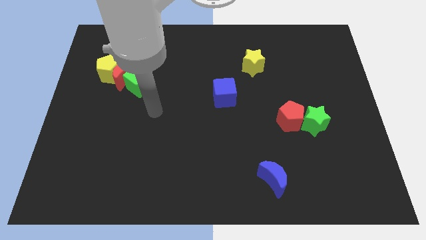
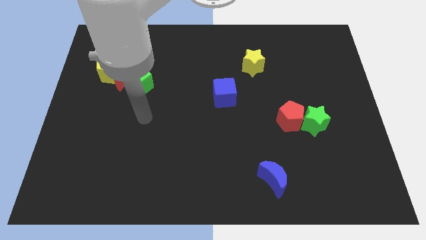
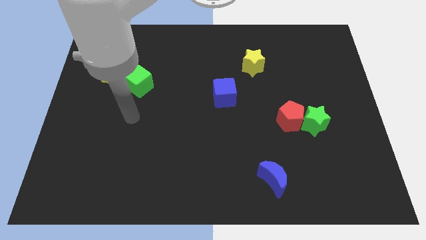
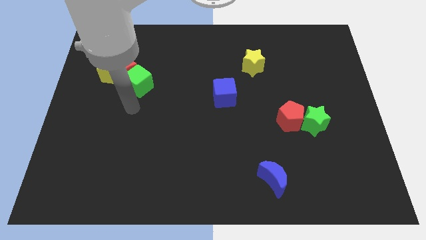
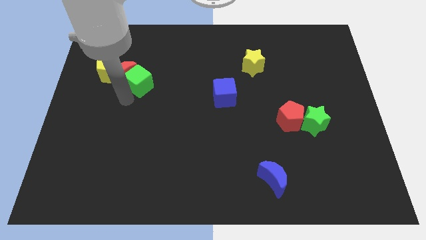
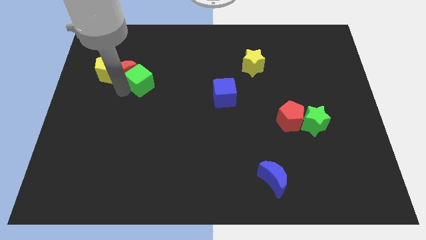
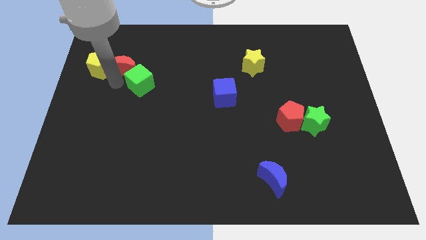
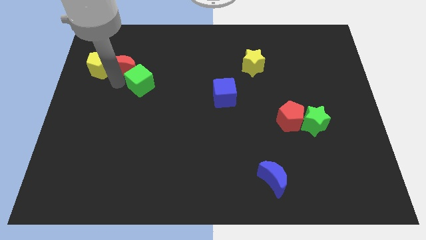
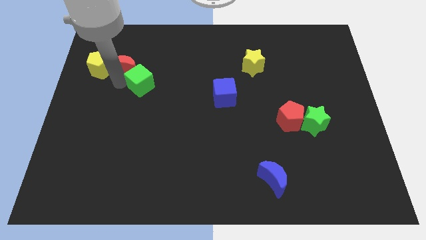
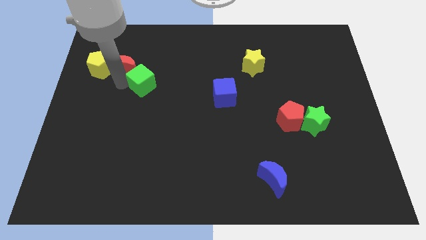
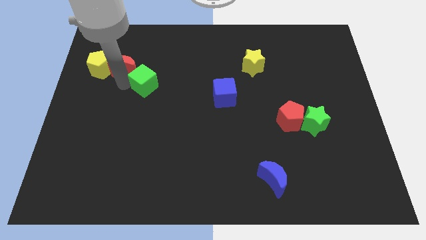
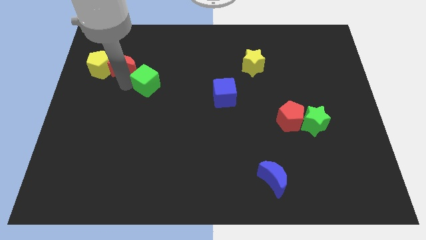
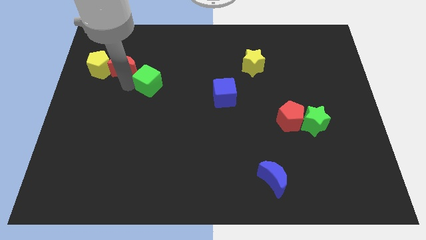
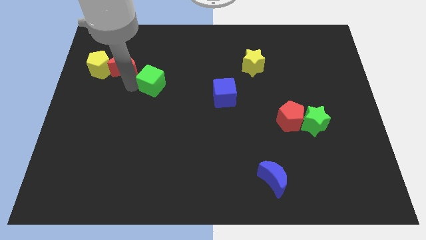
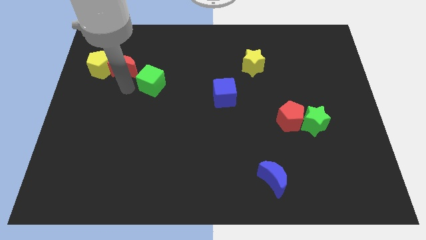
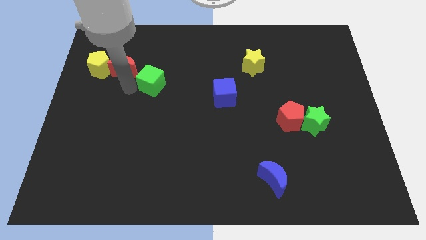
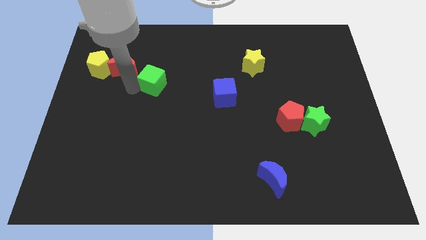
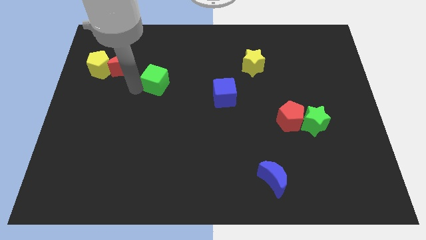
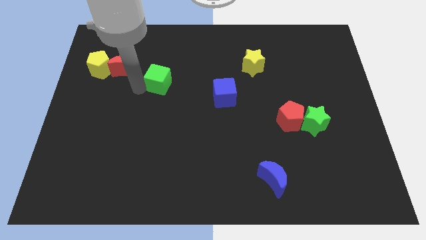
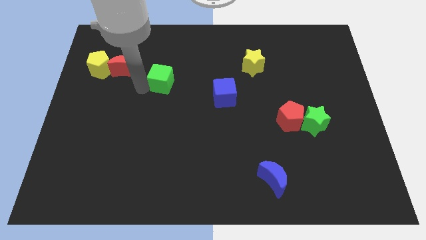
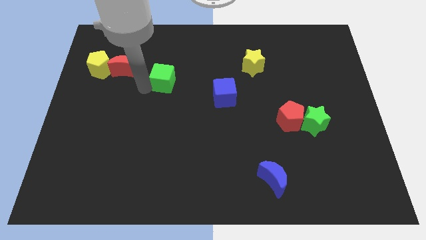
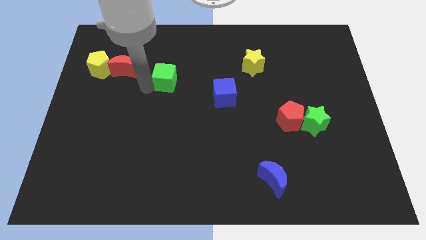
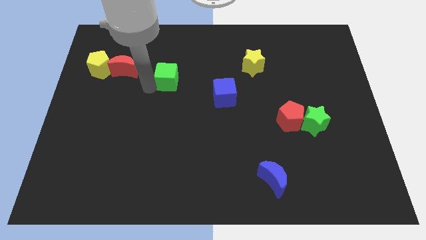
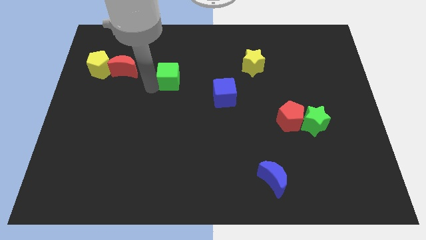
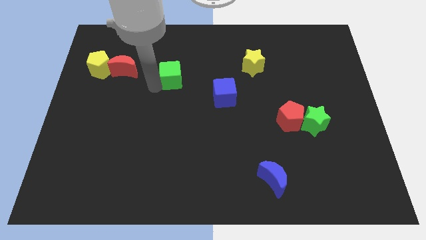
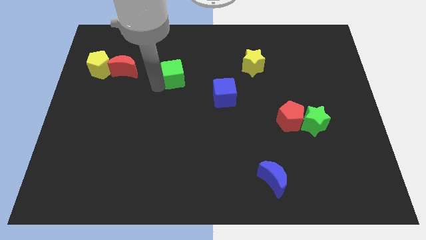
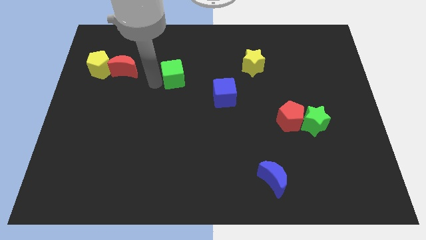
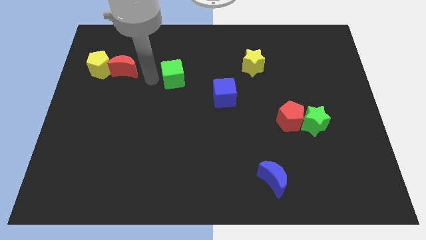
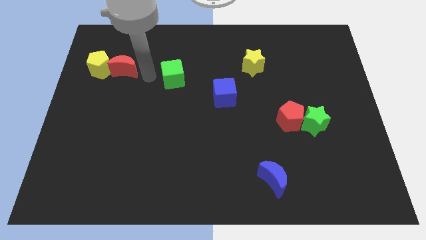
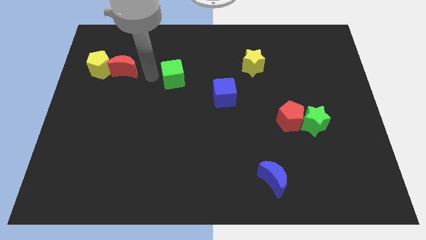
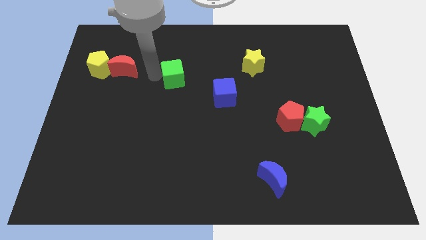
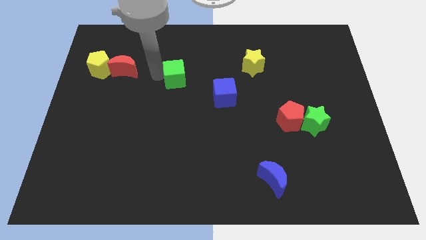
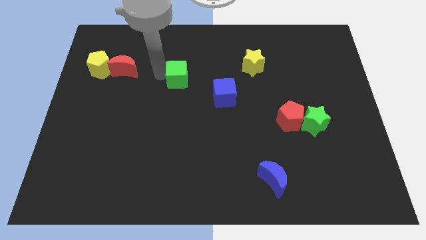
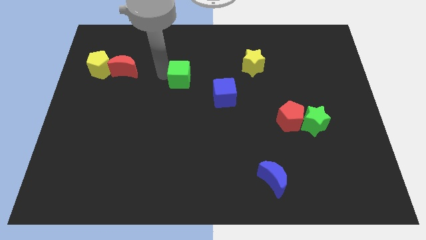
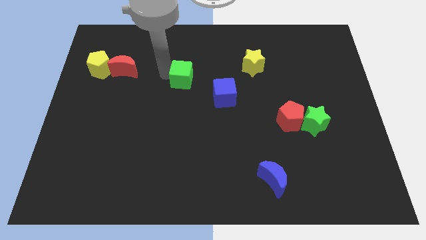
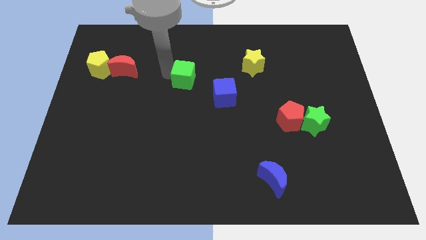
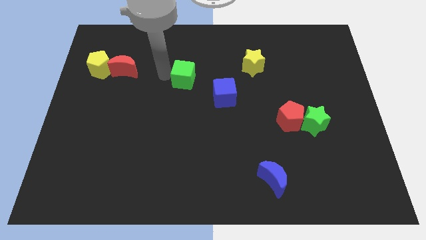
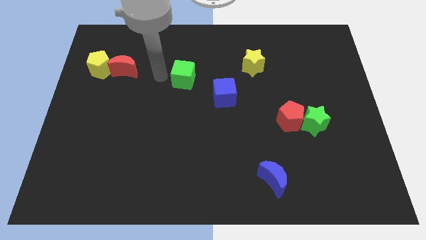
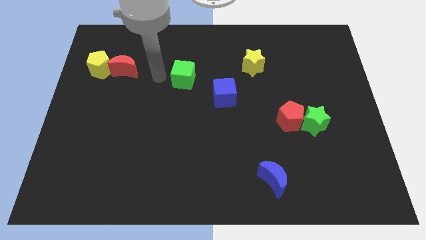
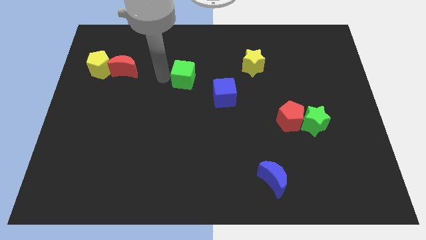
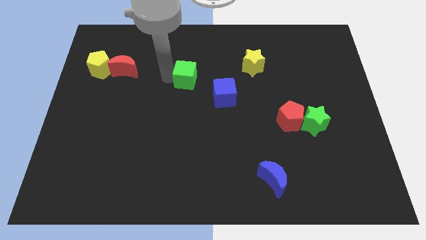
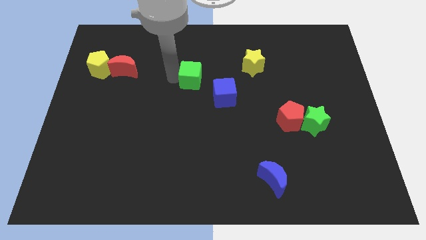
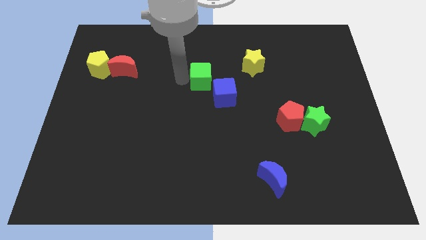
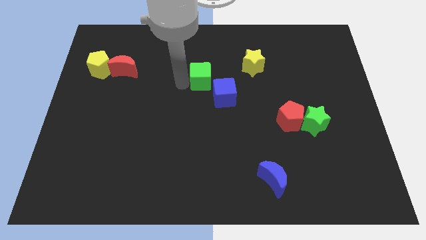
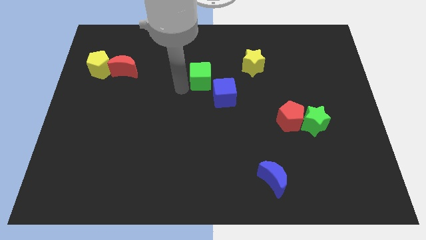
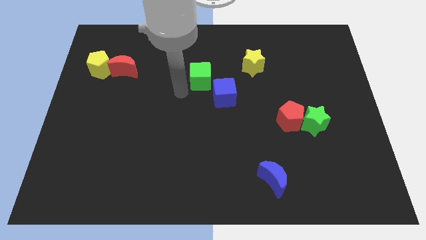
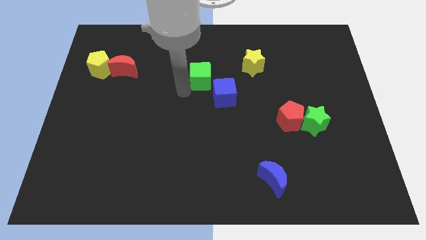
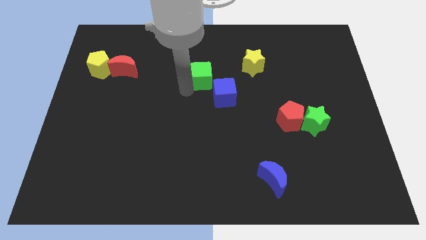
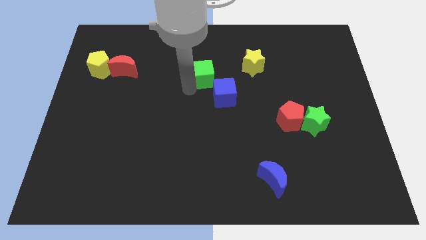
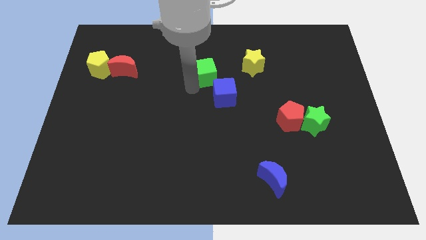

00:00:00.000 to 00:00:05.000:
slide the green cube above the blue cube

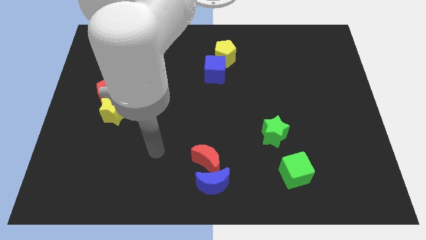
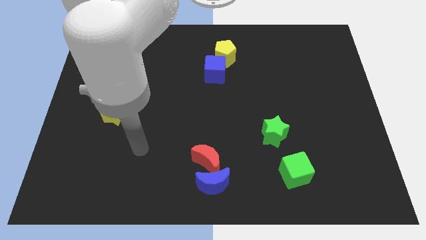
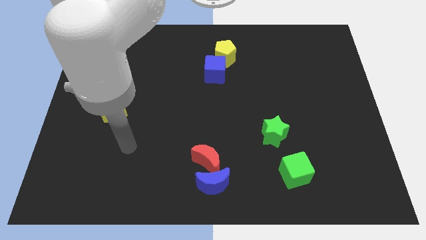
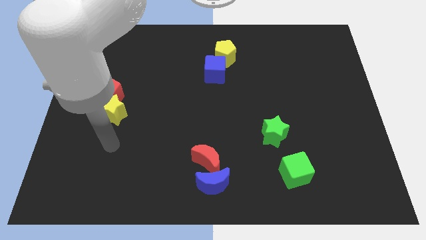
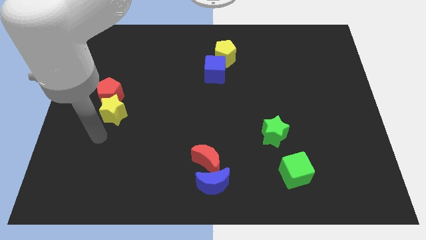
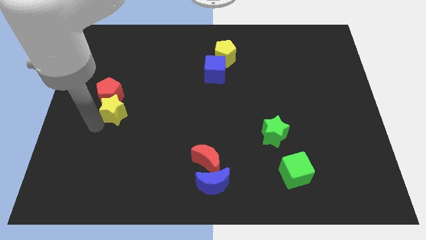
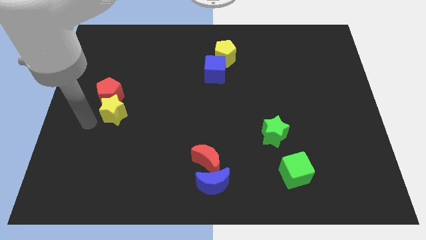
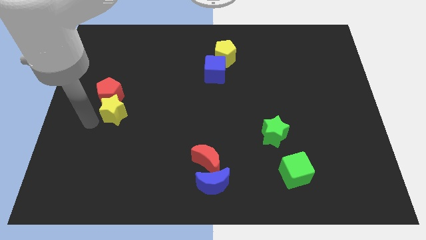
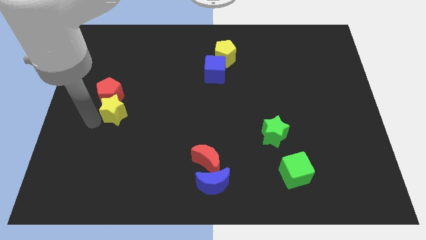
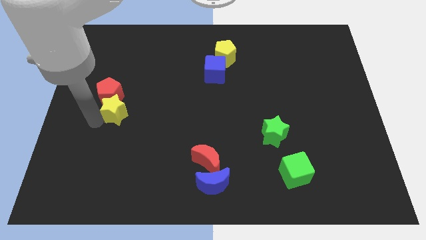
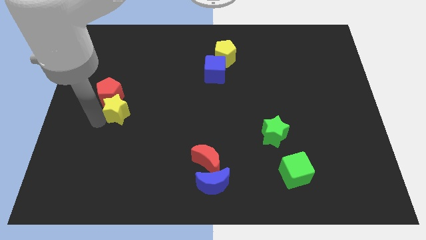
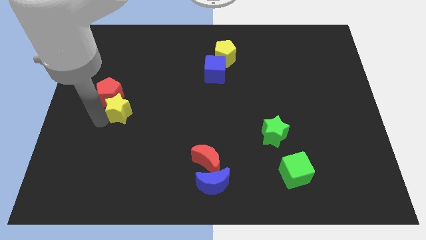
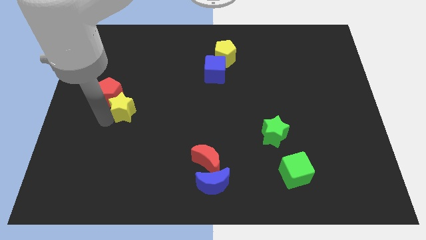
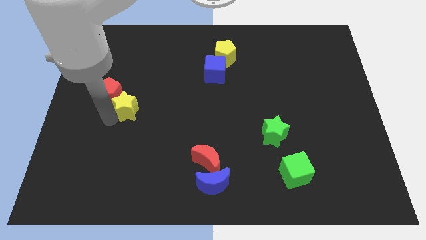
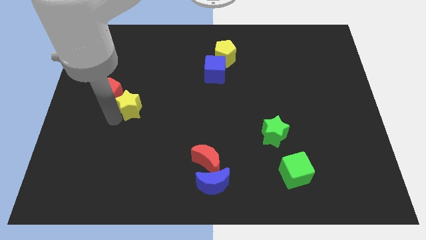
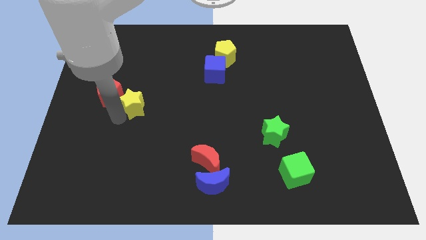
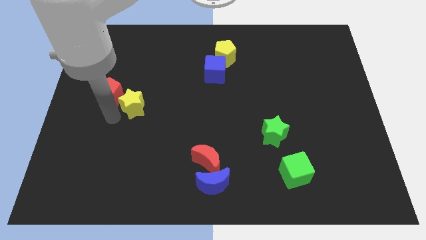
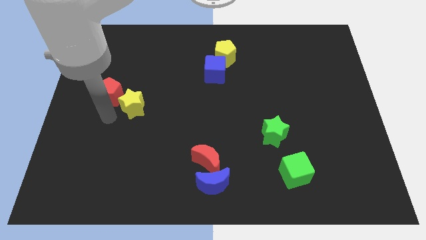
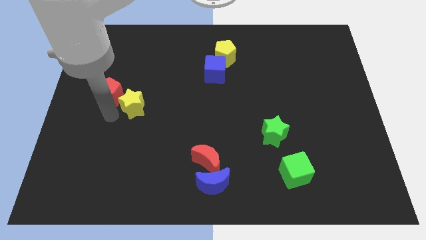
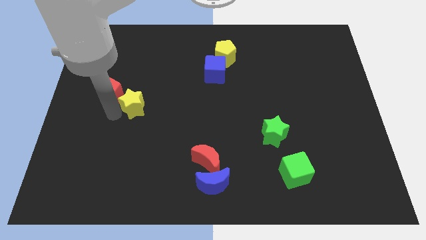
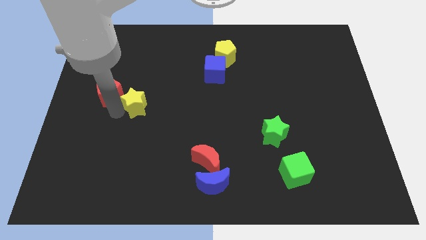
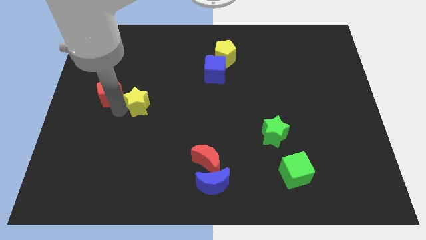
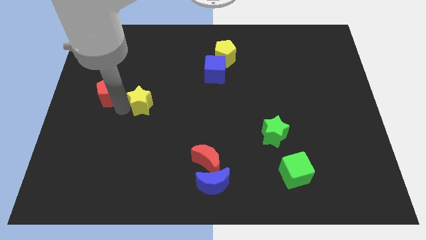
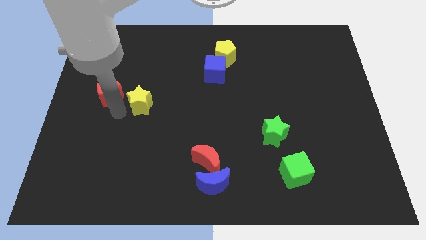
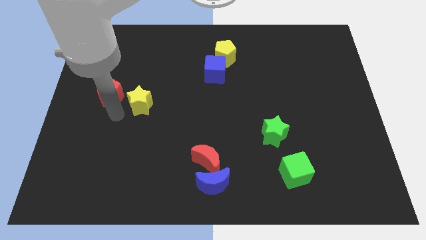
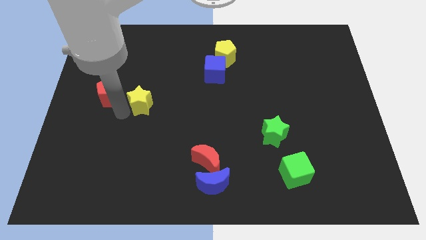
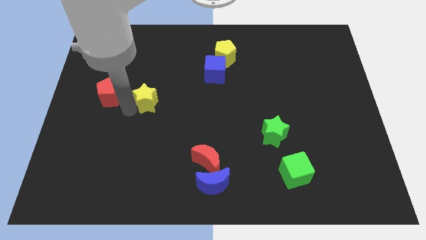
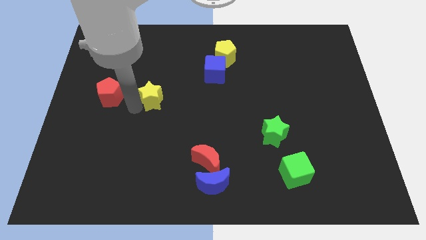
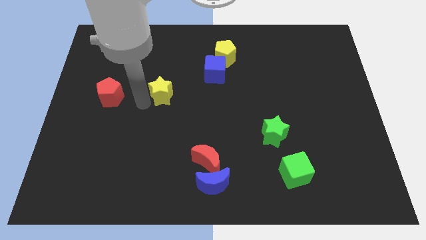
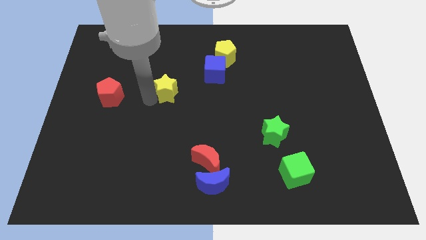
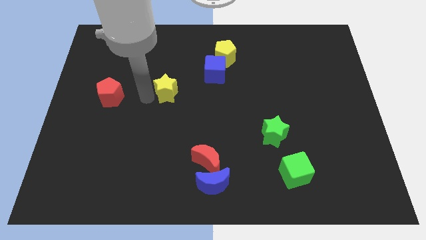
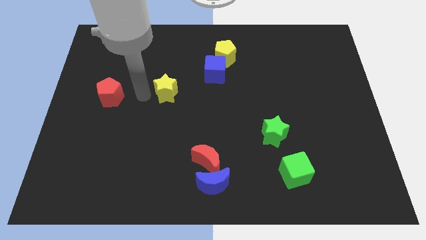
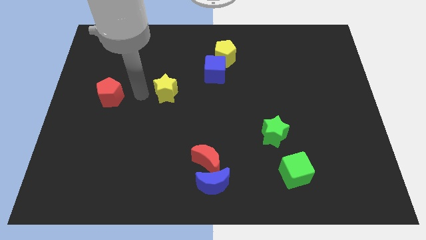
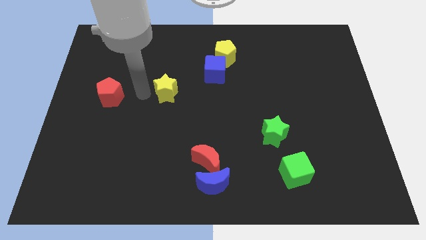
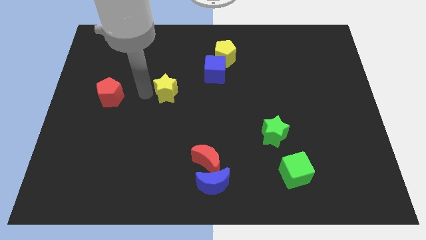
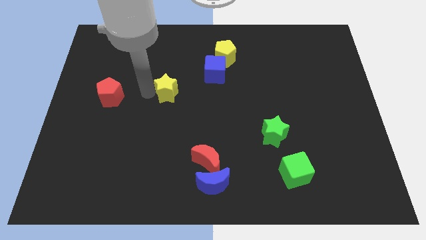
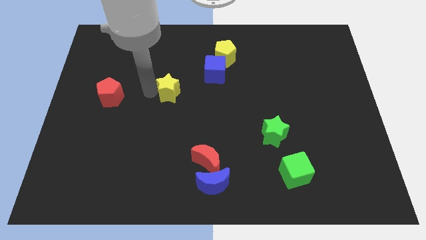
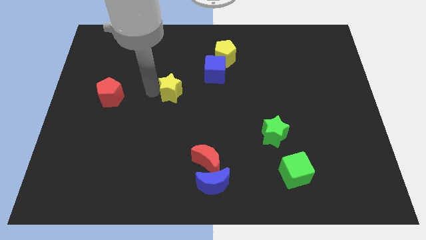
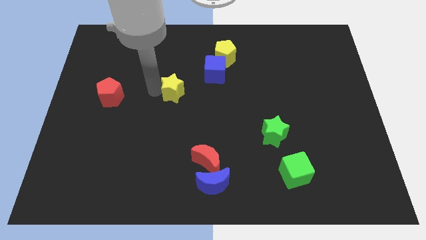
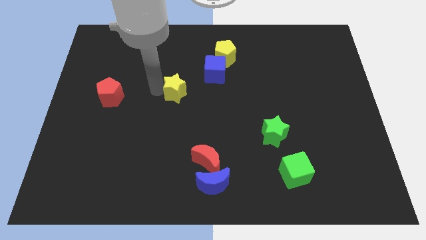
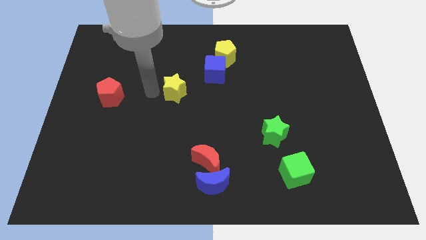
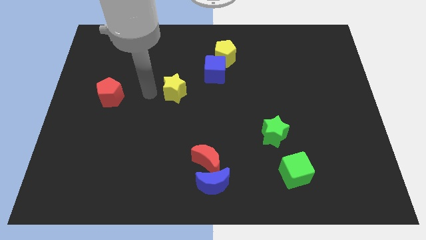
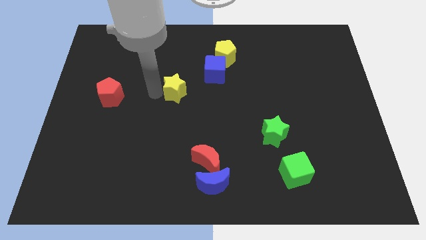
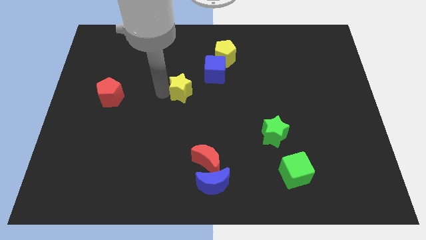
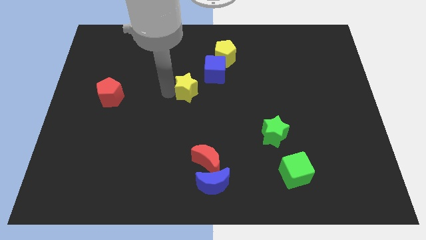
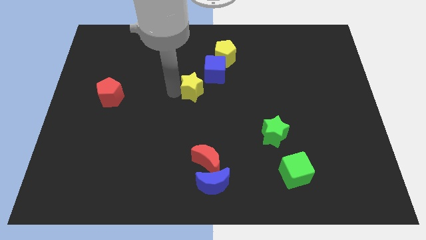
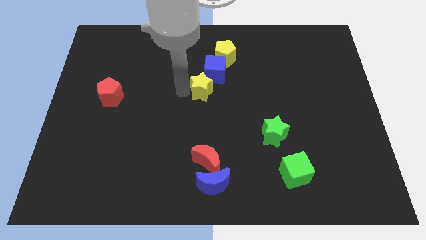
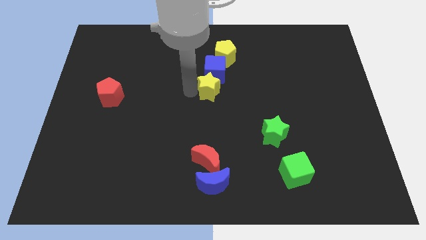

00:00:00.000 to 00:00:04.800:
put the yellow star below the yellow pentagon
